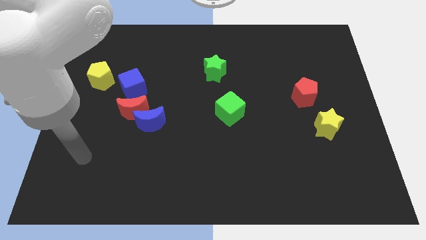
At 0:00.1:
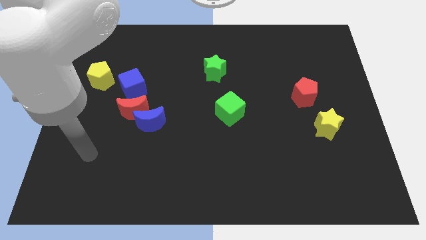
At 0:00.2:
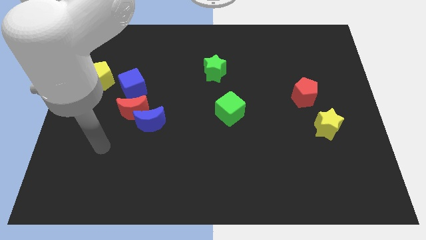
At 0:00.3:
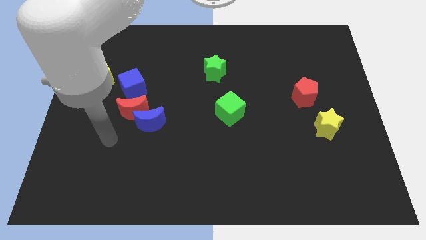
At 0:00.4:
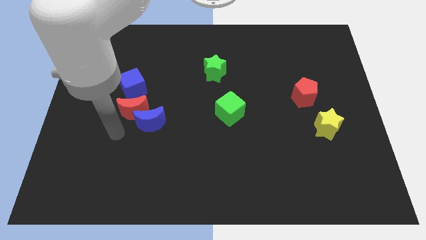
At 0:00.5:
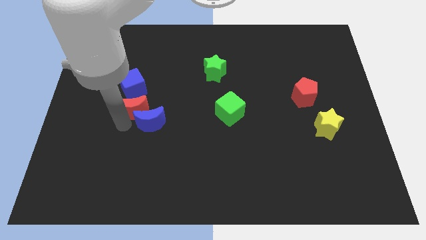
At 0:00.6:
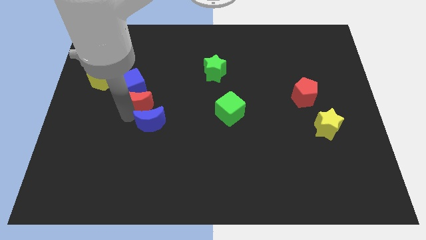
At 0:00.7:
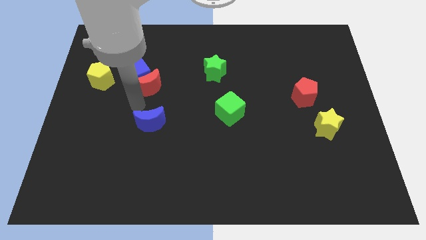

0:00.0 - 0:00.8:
pull the blue moon apart from the red moon

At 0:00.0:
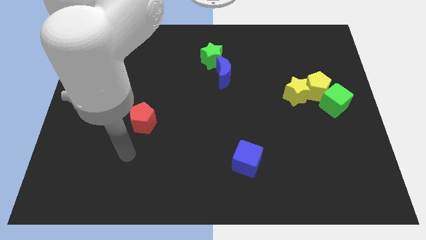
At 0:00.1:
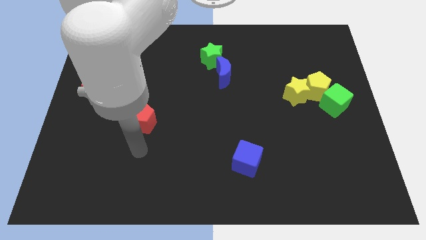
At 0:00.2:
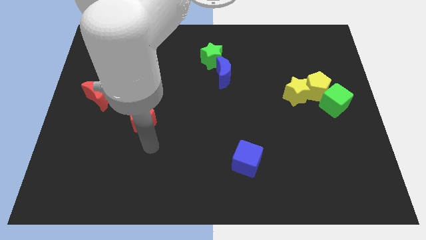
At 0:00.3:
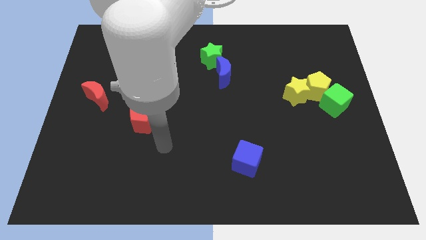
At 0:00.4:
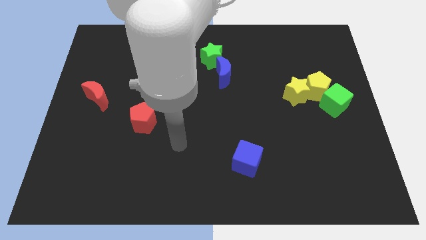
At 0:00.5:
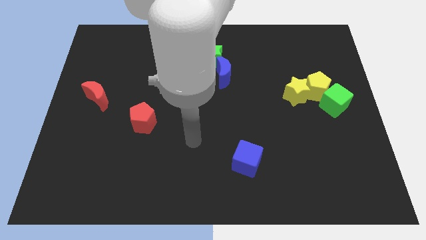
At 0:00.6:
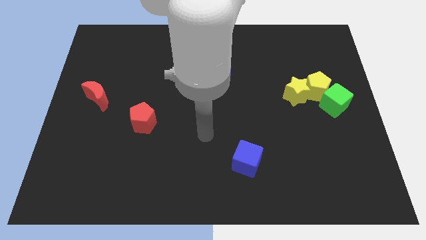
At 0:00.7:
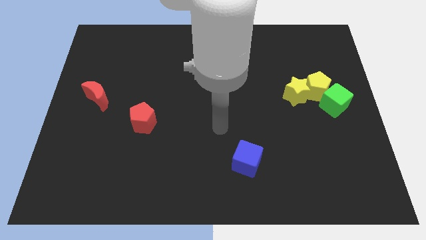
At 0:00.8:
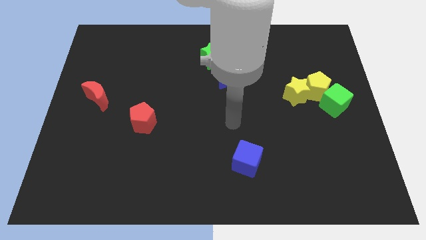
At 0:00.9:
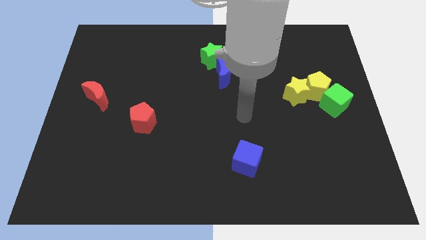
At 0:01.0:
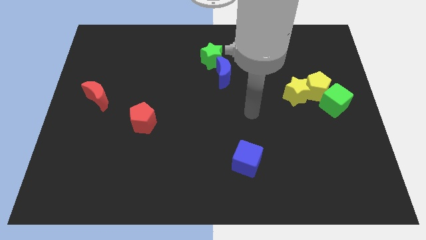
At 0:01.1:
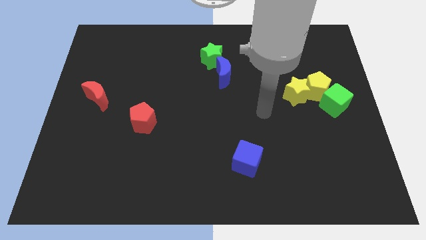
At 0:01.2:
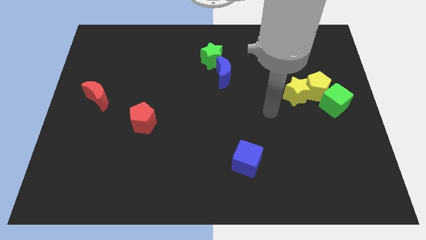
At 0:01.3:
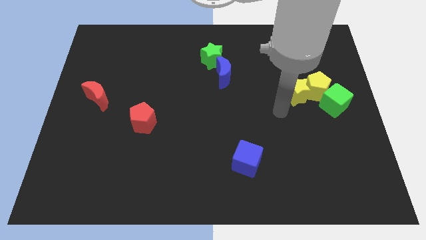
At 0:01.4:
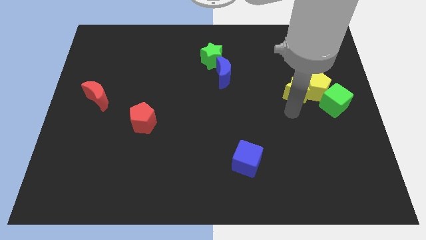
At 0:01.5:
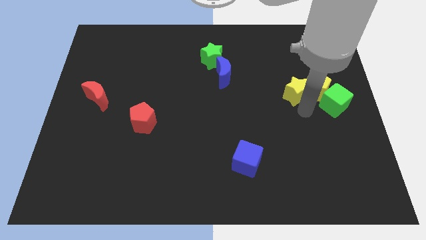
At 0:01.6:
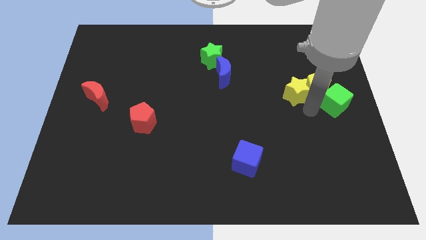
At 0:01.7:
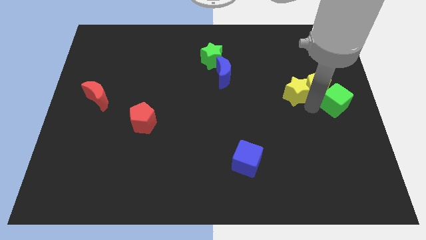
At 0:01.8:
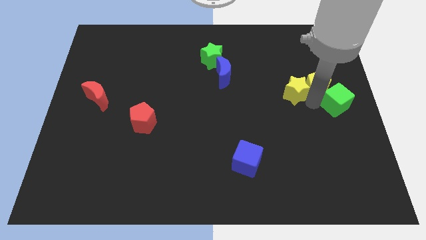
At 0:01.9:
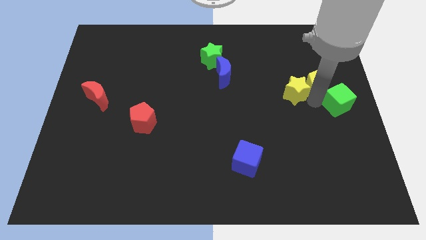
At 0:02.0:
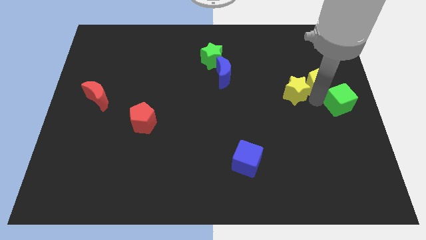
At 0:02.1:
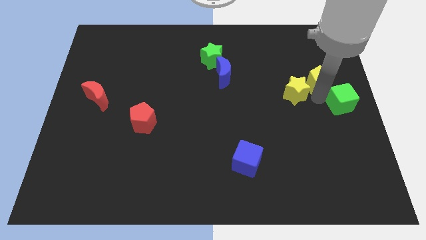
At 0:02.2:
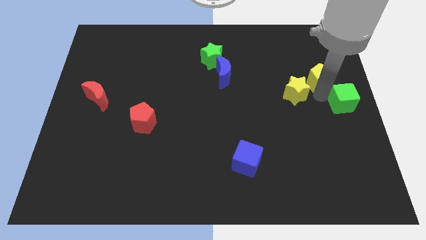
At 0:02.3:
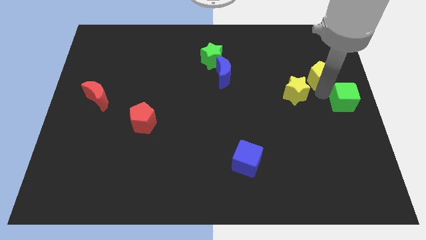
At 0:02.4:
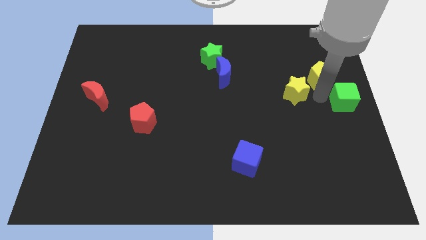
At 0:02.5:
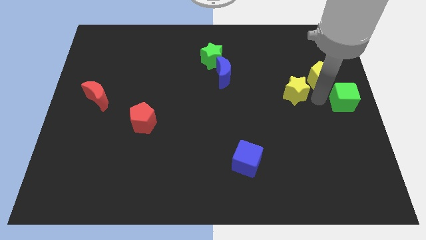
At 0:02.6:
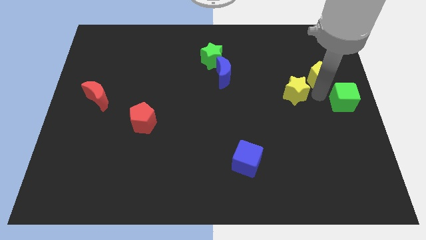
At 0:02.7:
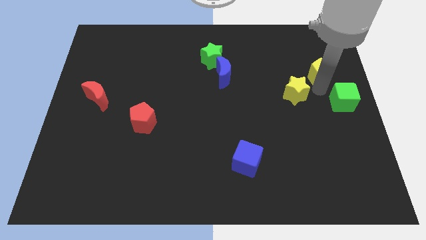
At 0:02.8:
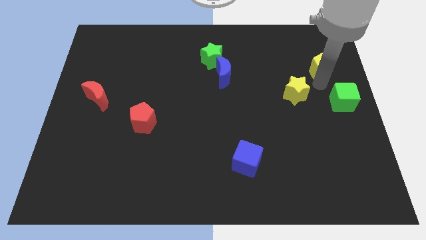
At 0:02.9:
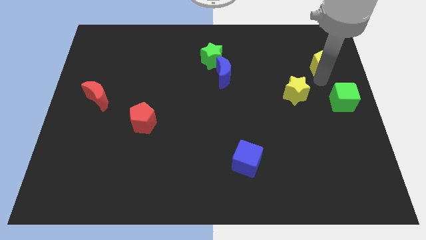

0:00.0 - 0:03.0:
move the yellow pentagon away from the yellow star and green cube

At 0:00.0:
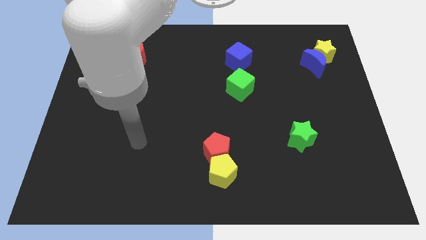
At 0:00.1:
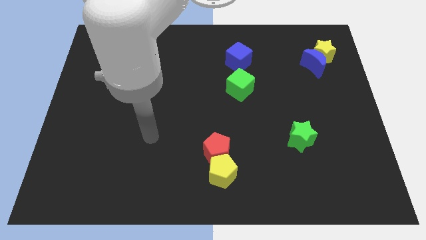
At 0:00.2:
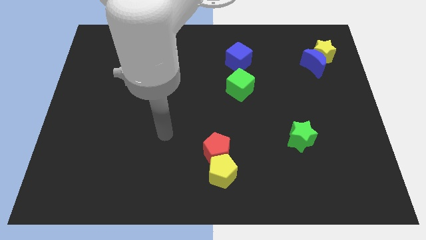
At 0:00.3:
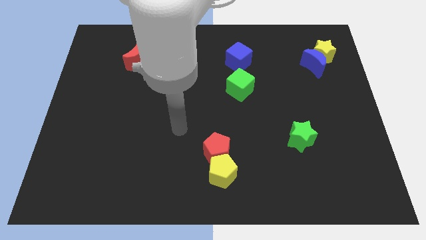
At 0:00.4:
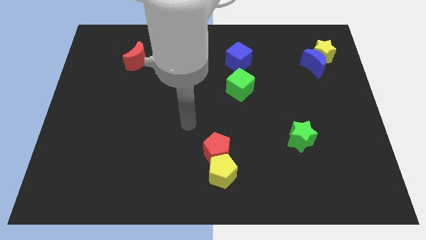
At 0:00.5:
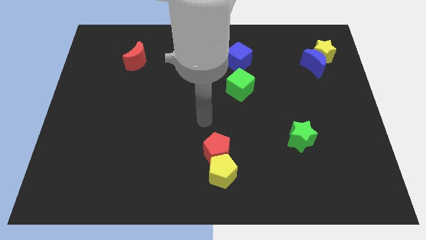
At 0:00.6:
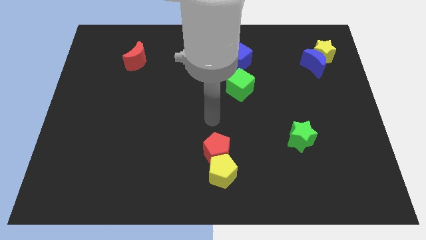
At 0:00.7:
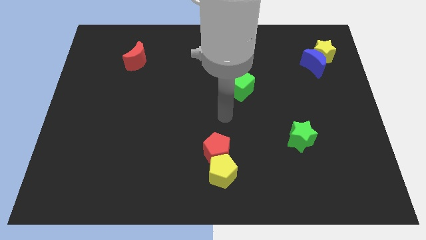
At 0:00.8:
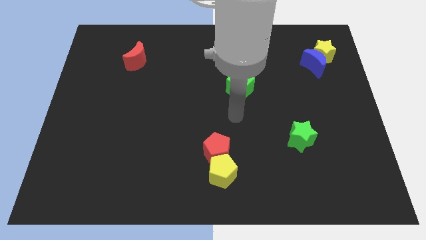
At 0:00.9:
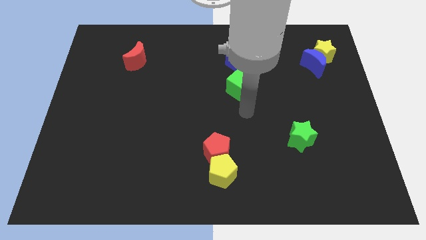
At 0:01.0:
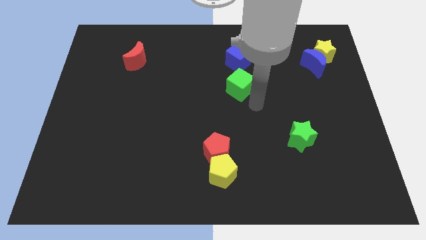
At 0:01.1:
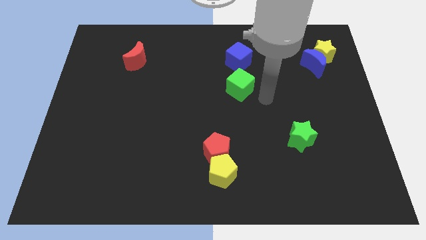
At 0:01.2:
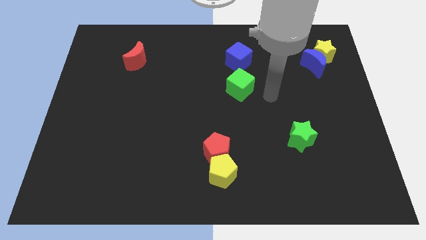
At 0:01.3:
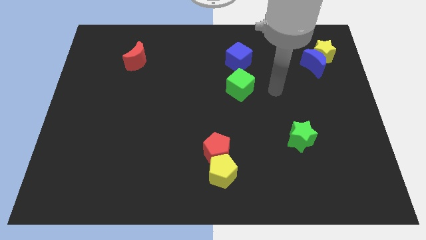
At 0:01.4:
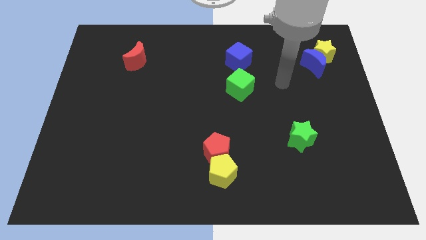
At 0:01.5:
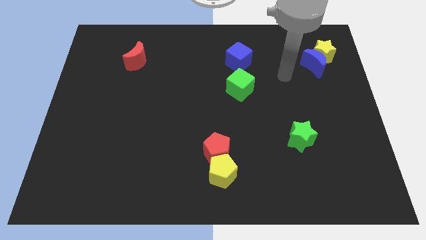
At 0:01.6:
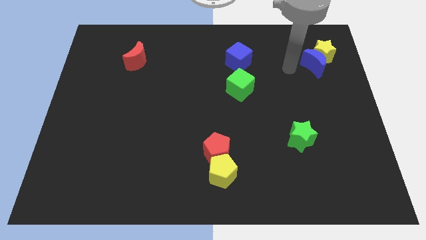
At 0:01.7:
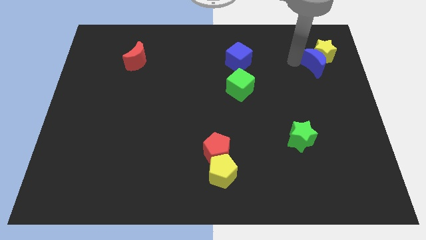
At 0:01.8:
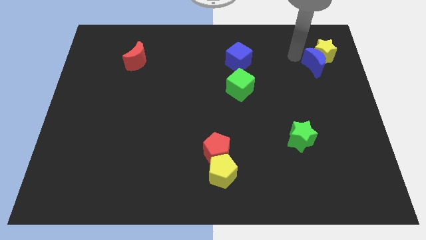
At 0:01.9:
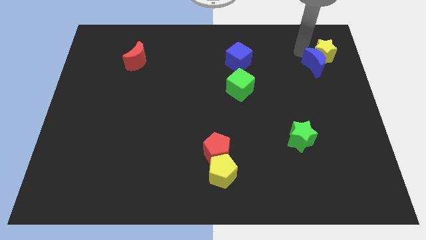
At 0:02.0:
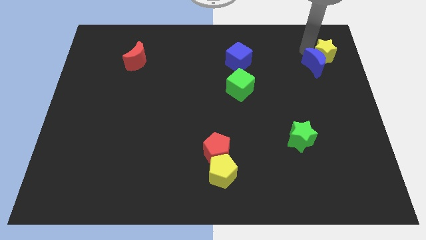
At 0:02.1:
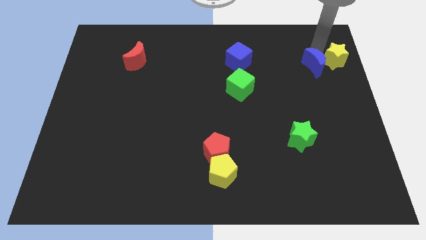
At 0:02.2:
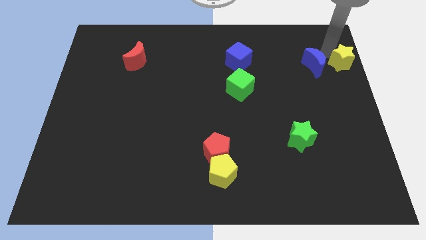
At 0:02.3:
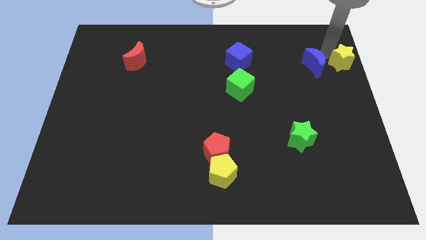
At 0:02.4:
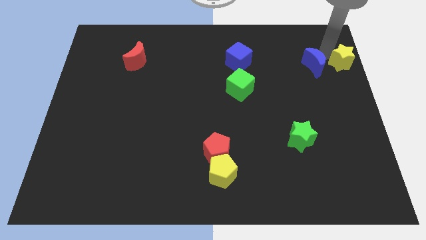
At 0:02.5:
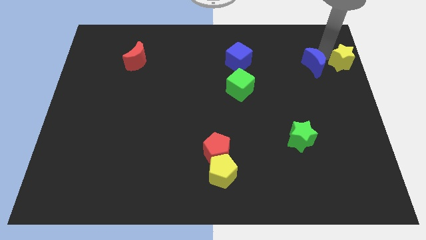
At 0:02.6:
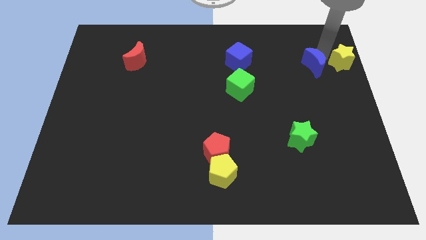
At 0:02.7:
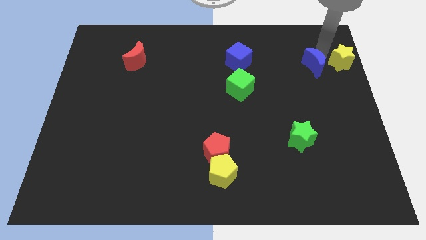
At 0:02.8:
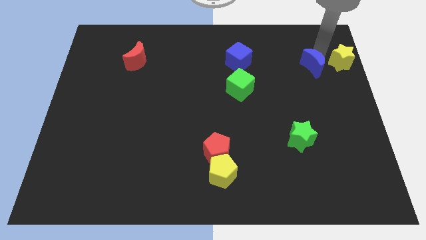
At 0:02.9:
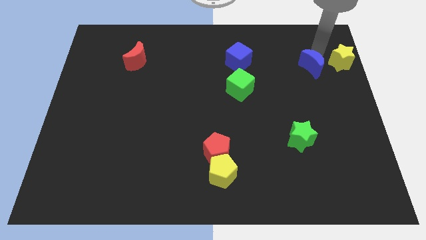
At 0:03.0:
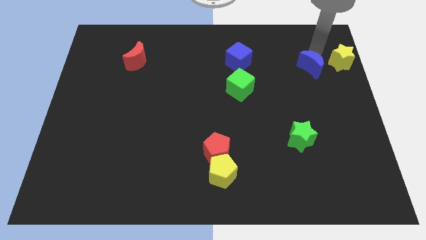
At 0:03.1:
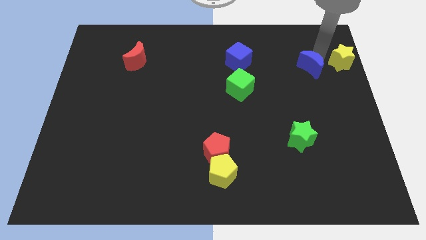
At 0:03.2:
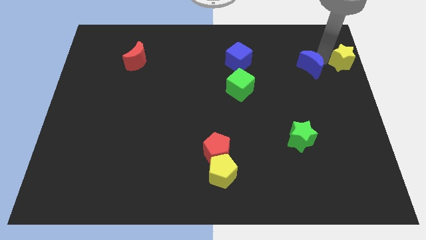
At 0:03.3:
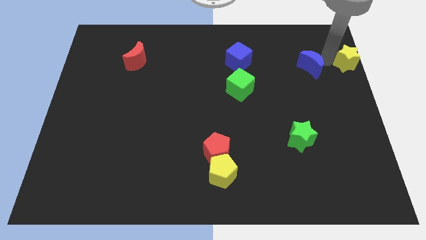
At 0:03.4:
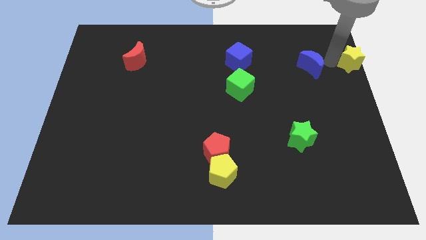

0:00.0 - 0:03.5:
pull the blue moon apart from the yellow star

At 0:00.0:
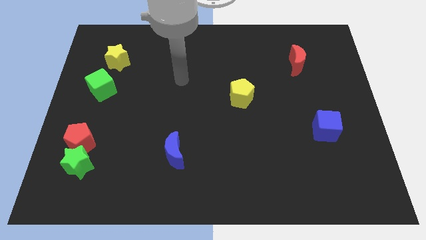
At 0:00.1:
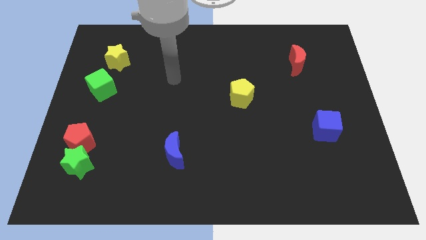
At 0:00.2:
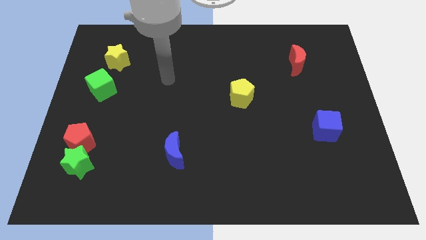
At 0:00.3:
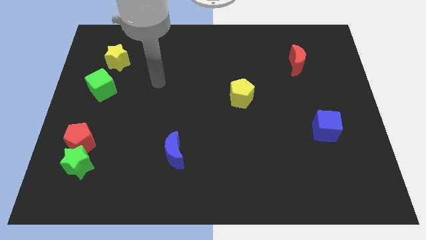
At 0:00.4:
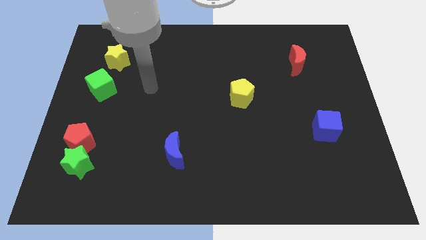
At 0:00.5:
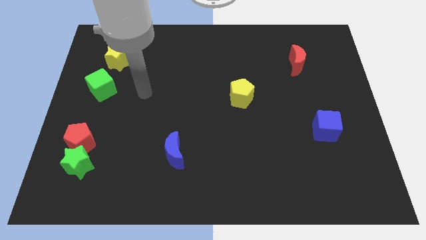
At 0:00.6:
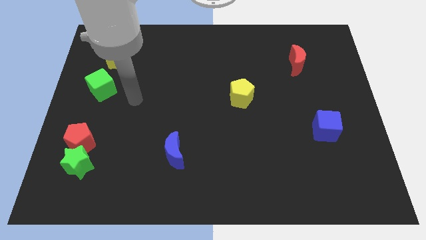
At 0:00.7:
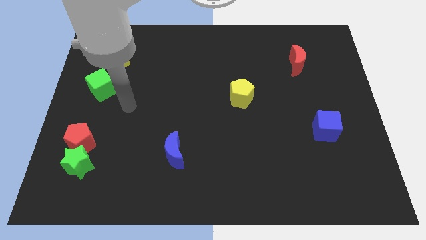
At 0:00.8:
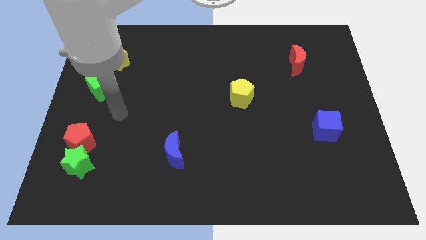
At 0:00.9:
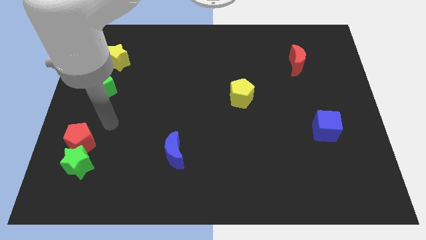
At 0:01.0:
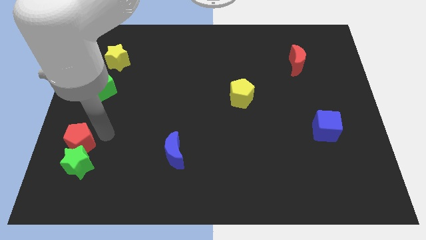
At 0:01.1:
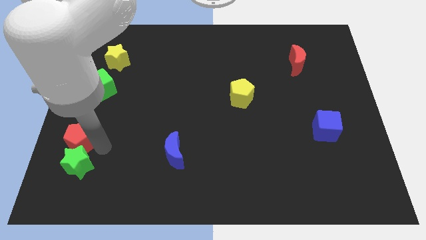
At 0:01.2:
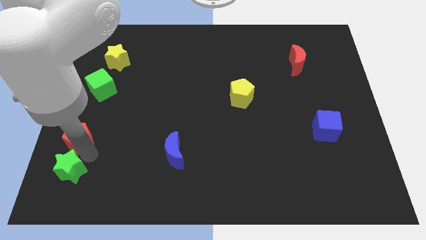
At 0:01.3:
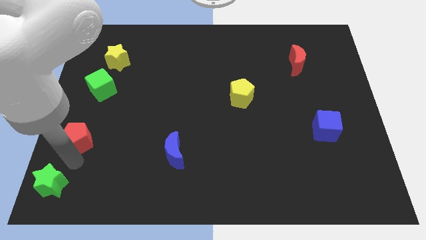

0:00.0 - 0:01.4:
separate the red pentagon from the green star

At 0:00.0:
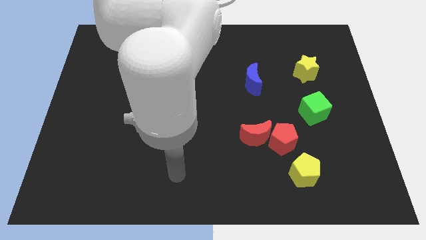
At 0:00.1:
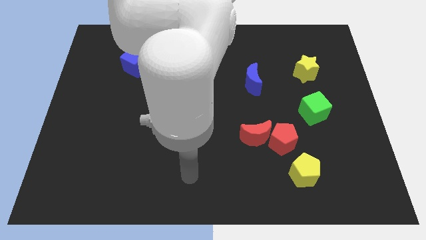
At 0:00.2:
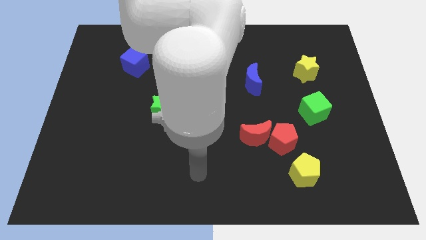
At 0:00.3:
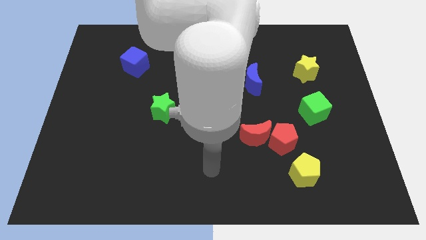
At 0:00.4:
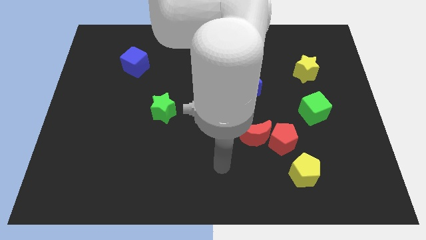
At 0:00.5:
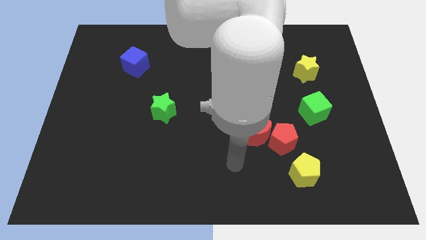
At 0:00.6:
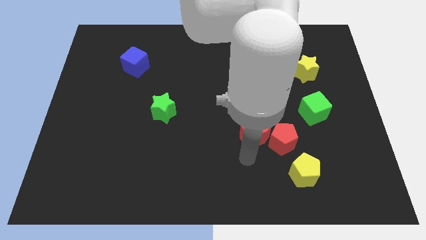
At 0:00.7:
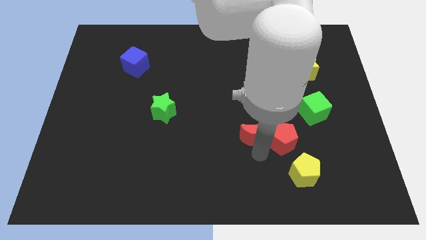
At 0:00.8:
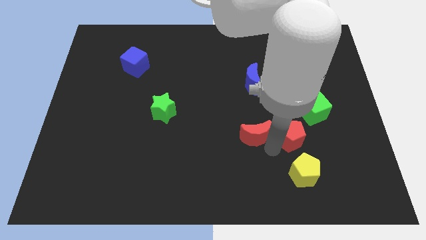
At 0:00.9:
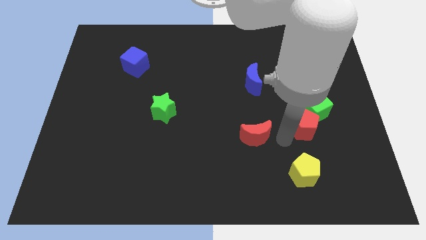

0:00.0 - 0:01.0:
separate the red moon from the red pentagon
